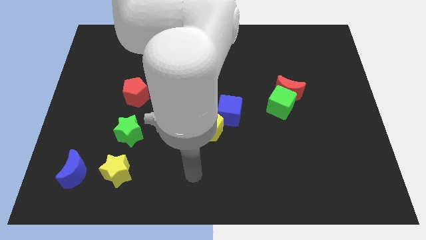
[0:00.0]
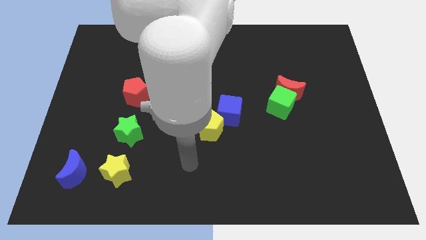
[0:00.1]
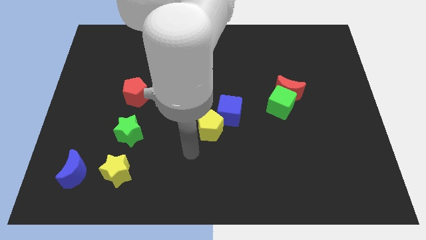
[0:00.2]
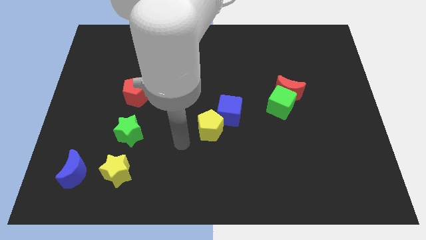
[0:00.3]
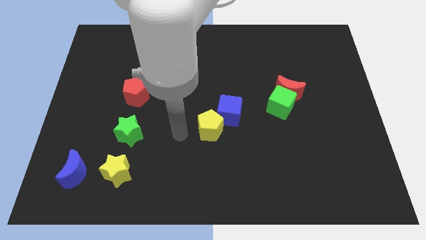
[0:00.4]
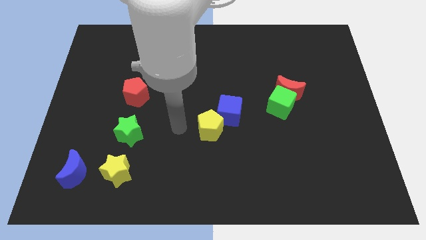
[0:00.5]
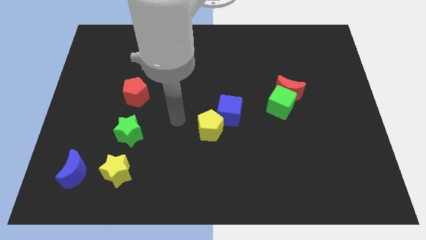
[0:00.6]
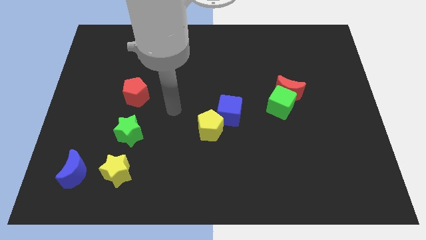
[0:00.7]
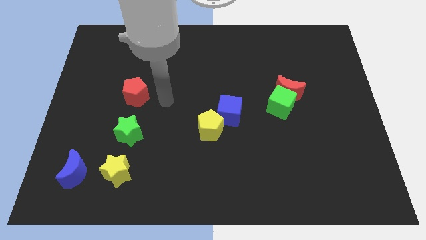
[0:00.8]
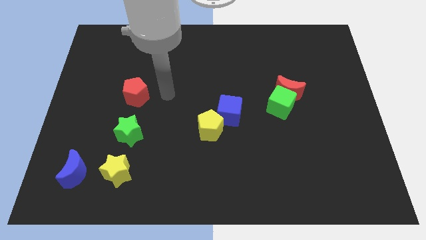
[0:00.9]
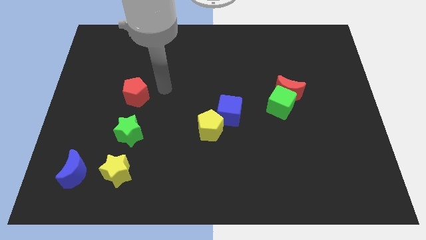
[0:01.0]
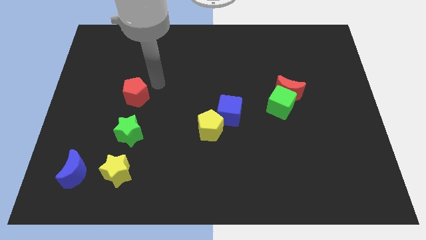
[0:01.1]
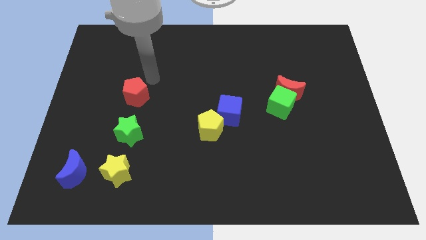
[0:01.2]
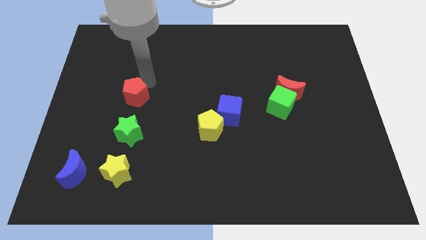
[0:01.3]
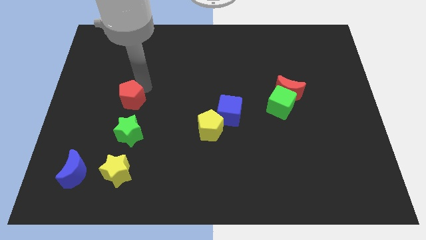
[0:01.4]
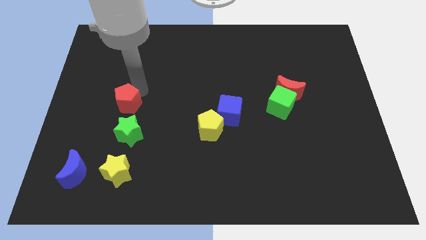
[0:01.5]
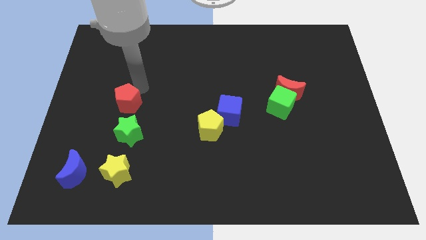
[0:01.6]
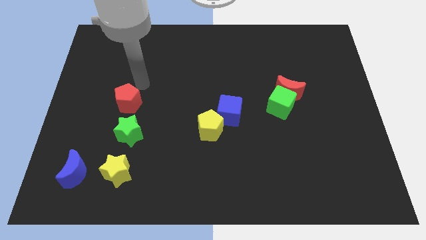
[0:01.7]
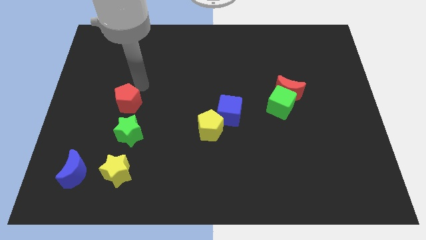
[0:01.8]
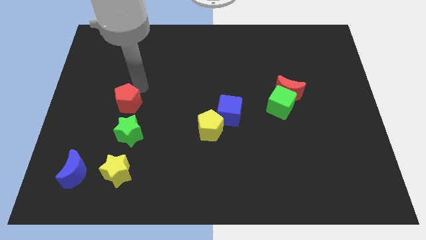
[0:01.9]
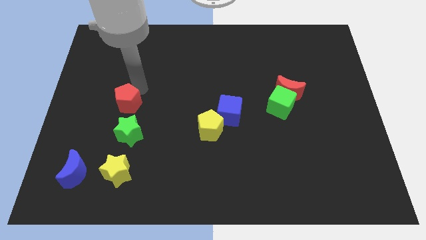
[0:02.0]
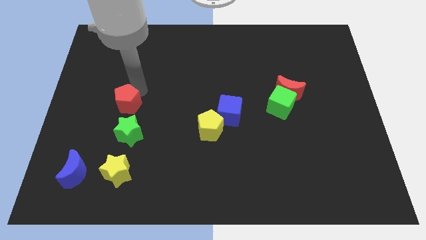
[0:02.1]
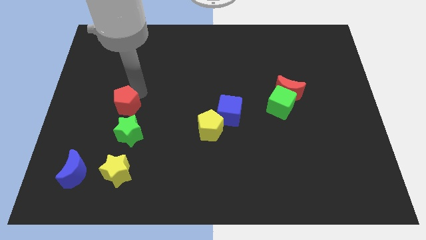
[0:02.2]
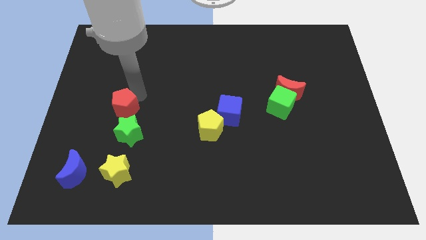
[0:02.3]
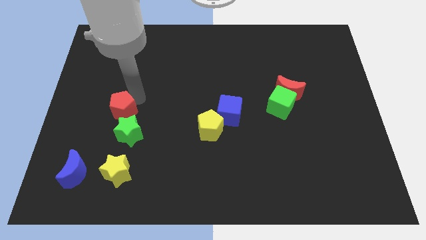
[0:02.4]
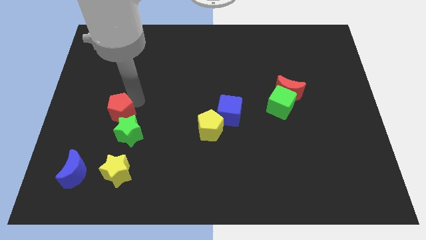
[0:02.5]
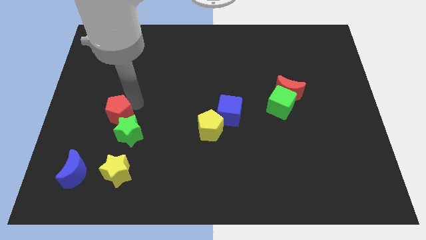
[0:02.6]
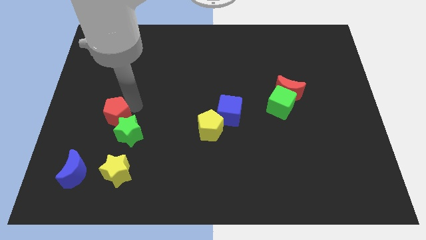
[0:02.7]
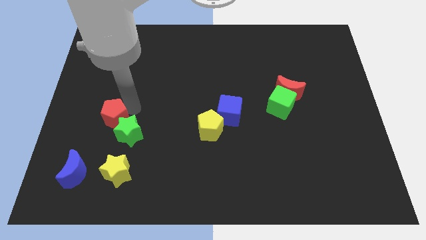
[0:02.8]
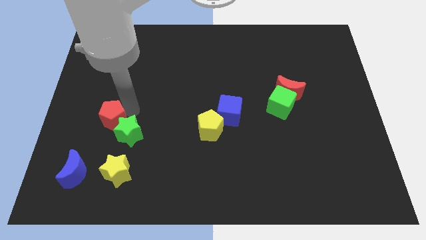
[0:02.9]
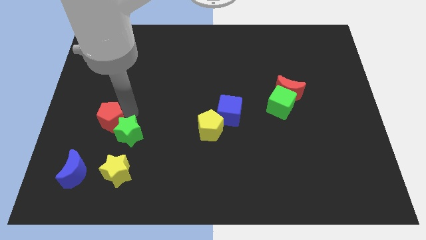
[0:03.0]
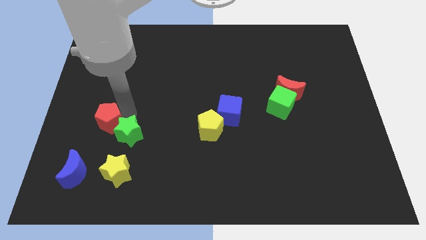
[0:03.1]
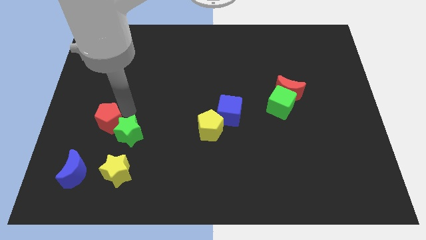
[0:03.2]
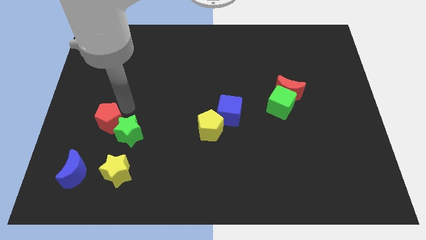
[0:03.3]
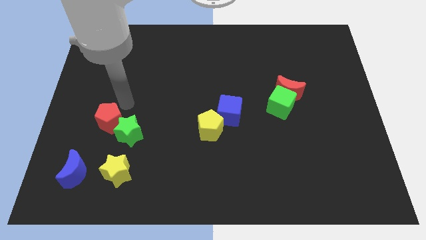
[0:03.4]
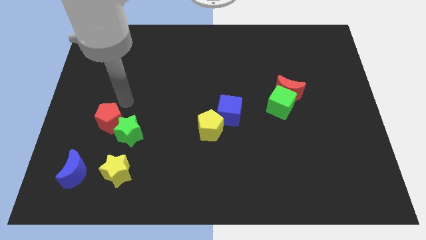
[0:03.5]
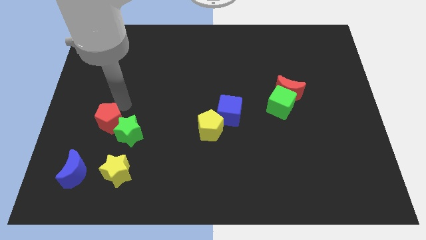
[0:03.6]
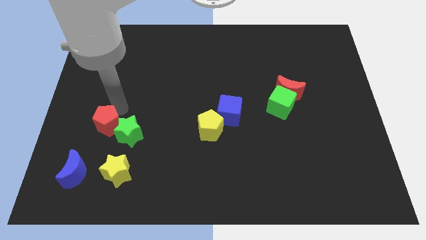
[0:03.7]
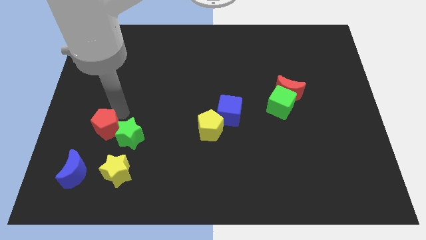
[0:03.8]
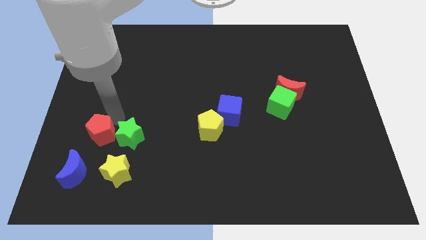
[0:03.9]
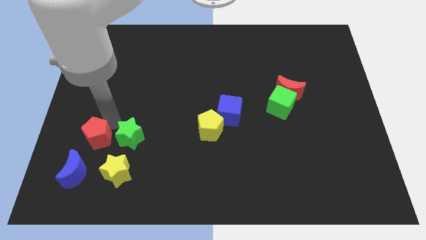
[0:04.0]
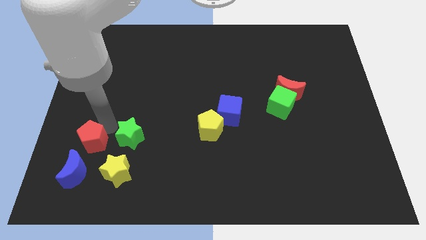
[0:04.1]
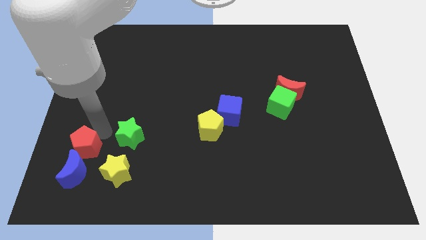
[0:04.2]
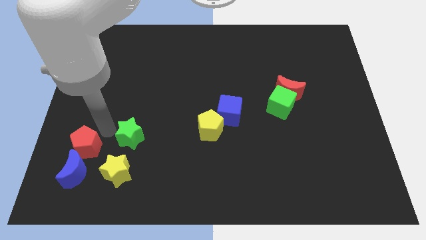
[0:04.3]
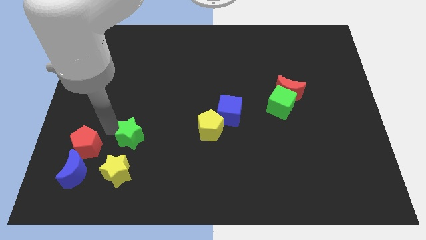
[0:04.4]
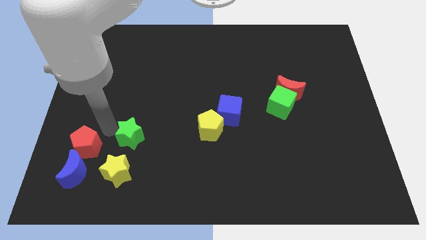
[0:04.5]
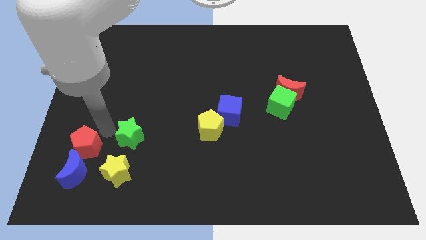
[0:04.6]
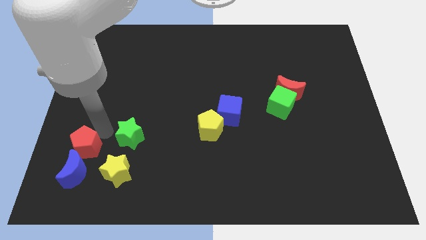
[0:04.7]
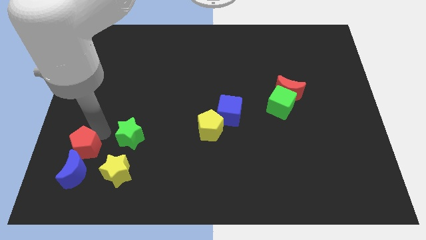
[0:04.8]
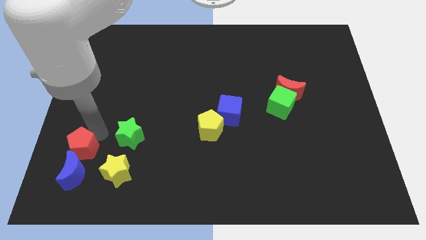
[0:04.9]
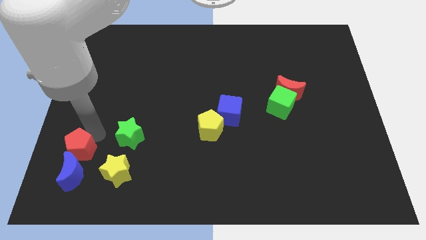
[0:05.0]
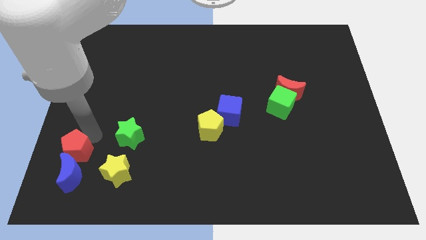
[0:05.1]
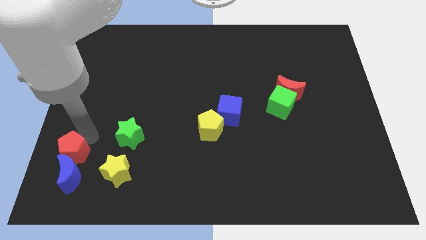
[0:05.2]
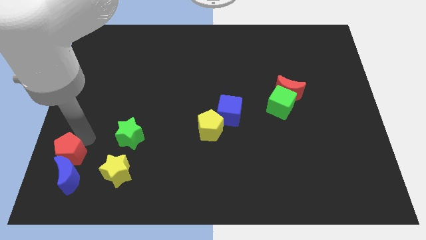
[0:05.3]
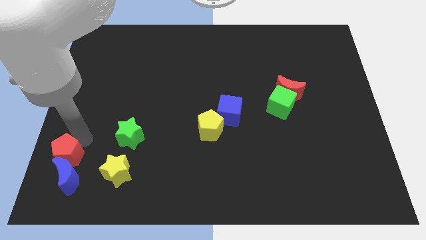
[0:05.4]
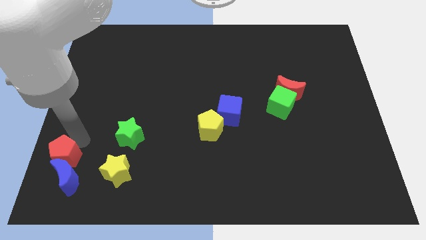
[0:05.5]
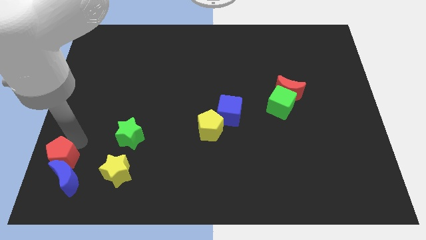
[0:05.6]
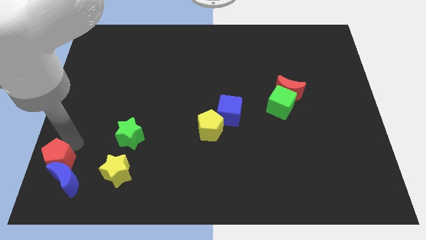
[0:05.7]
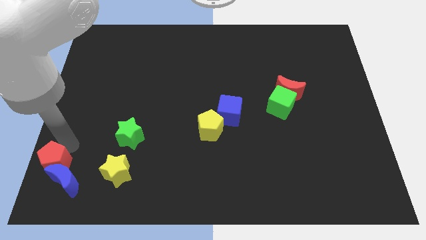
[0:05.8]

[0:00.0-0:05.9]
put the red pentagon to the bottom left of the board
